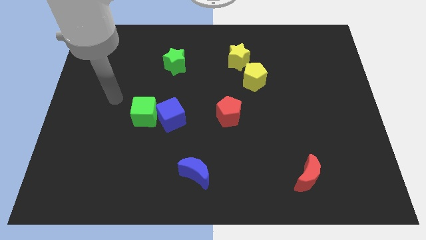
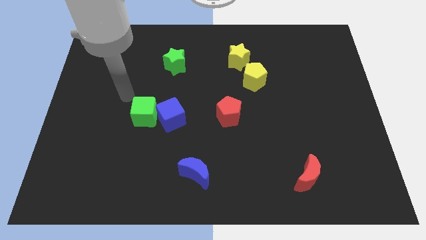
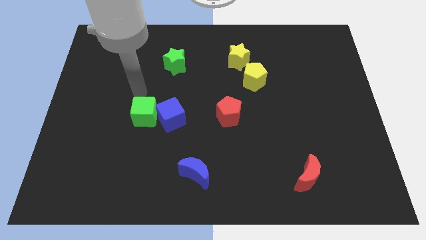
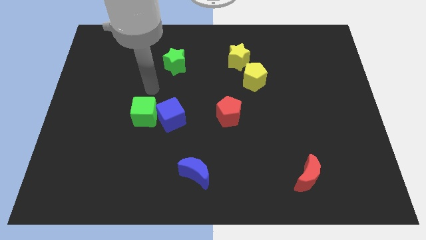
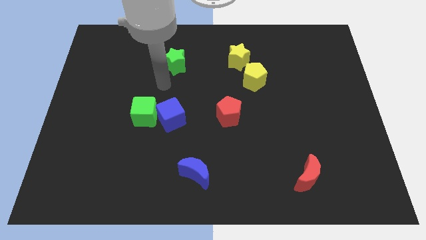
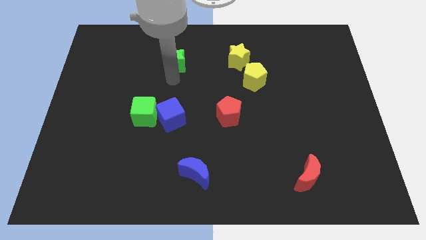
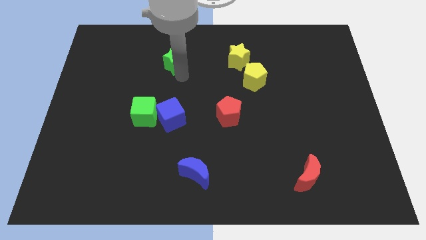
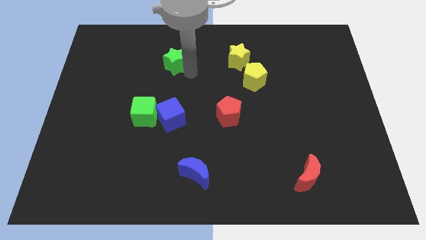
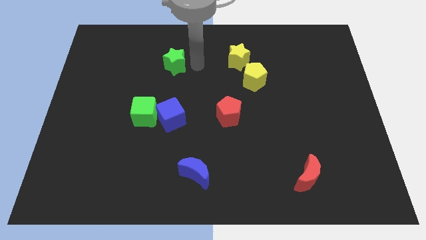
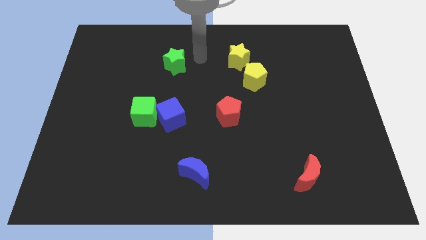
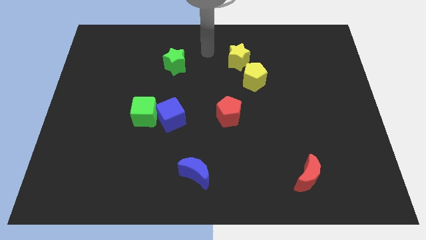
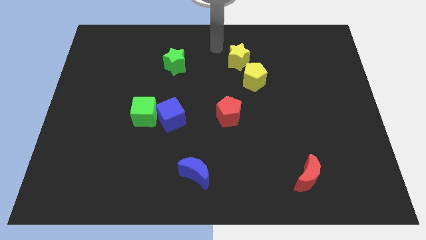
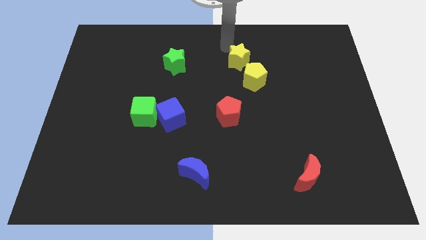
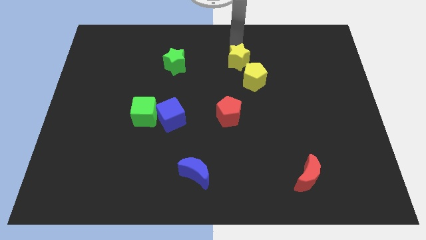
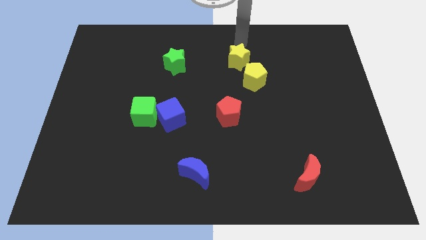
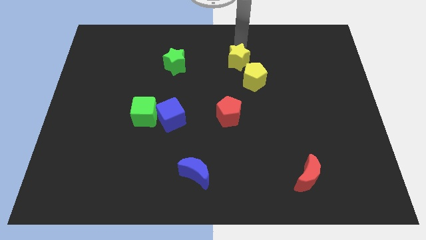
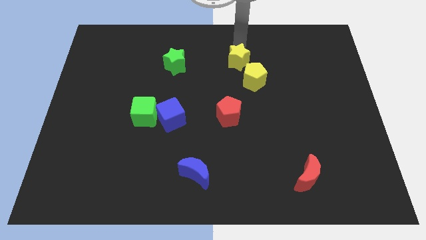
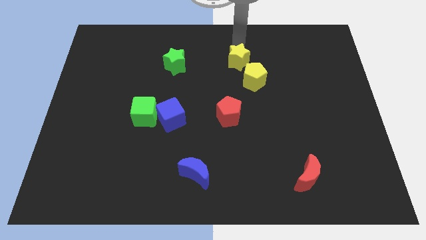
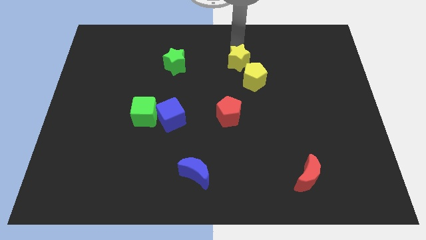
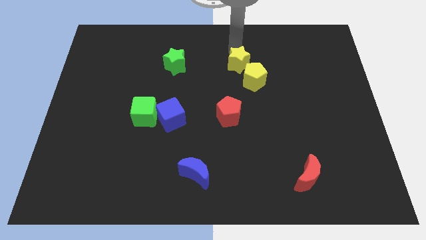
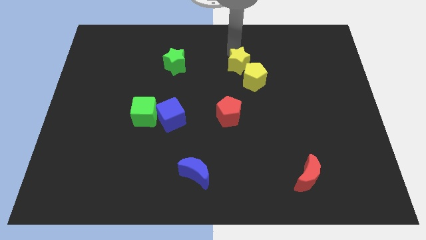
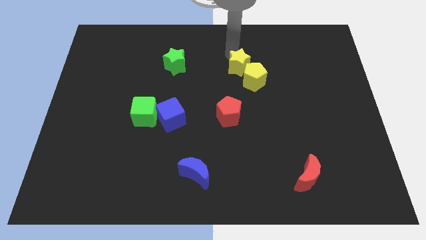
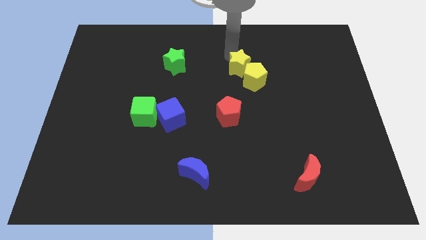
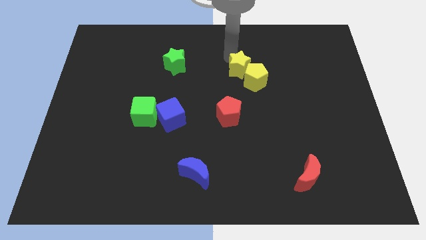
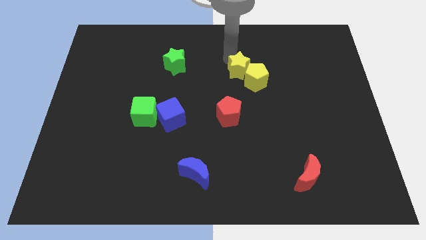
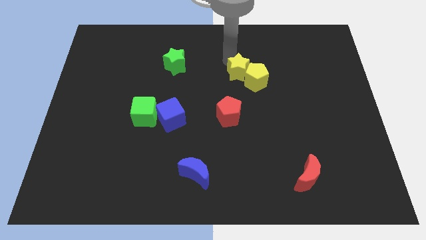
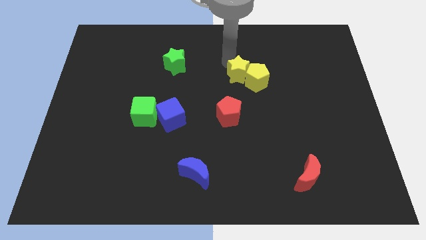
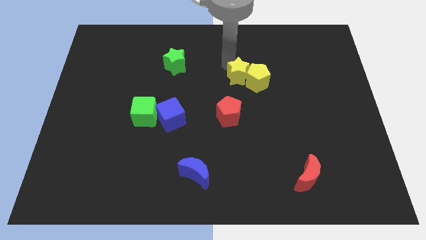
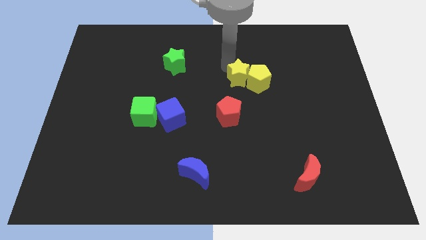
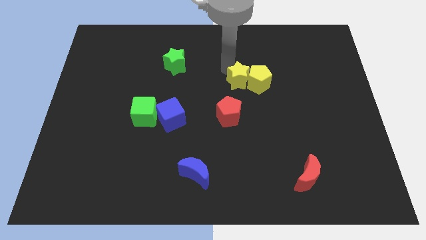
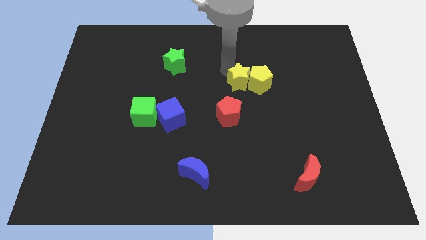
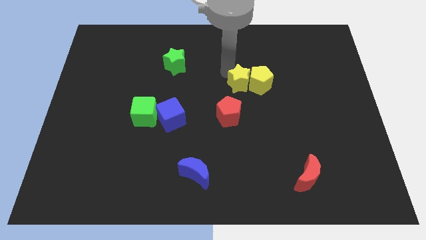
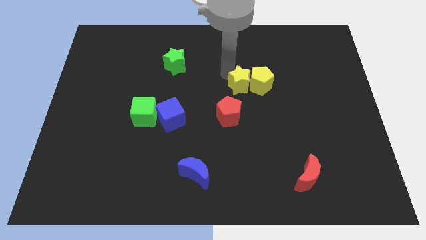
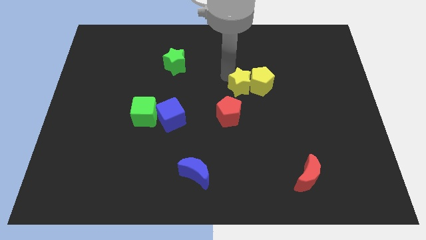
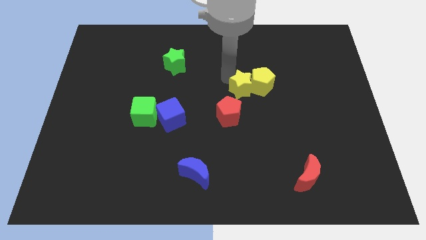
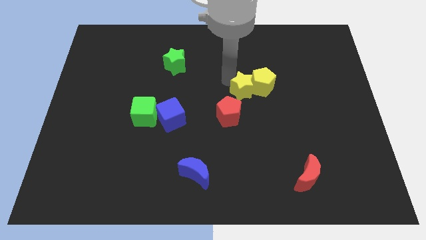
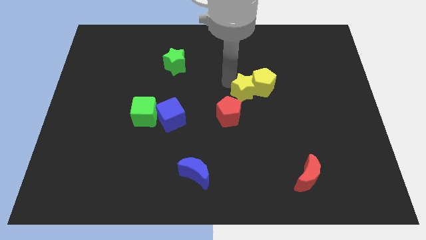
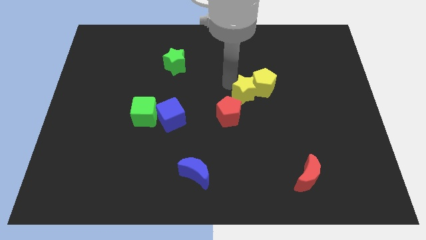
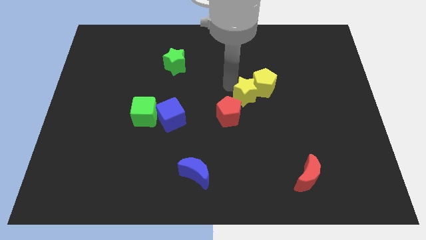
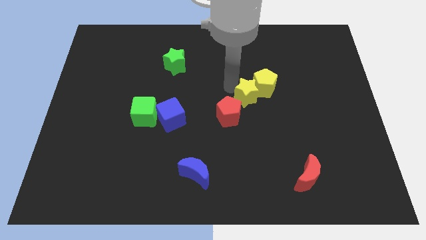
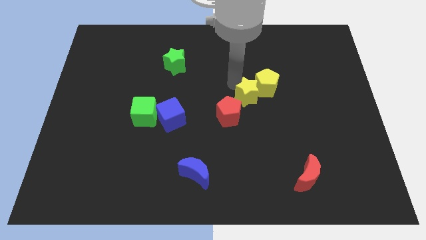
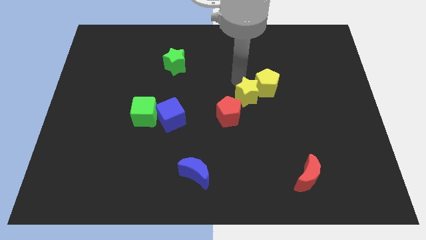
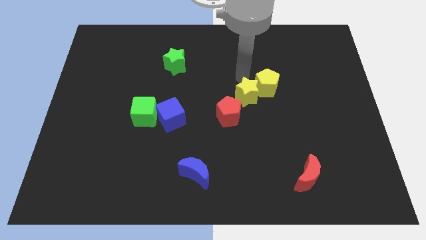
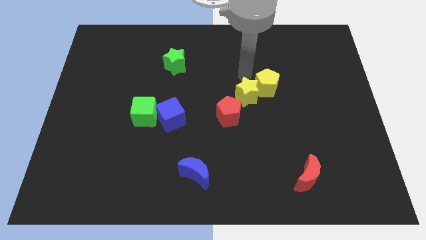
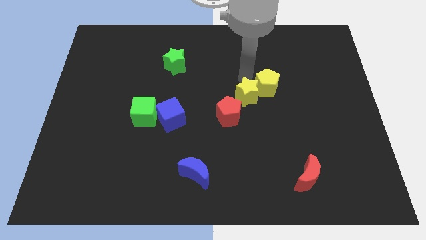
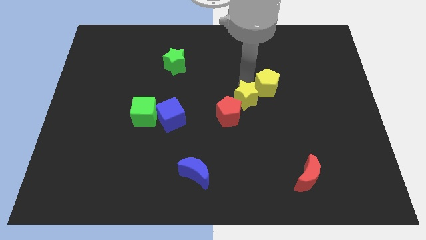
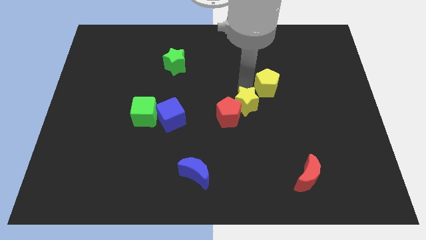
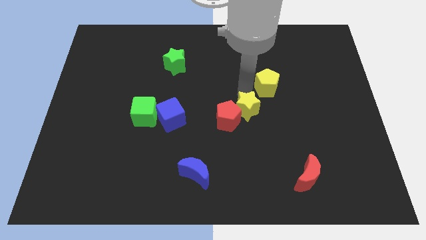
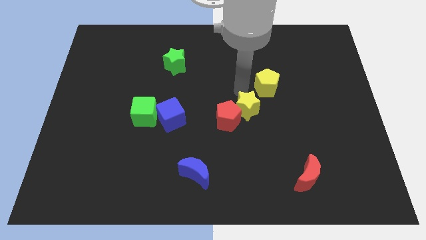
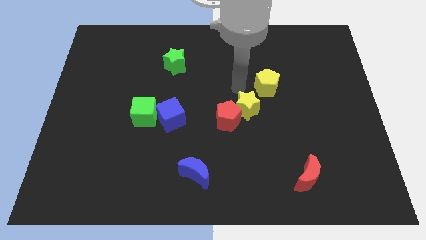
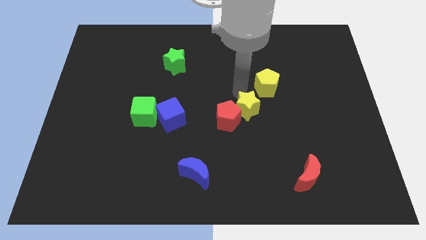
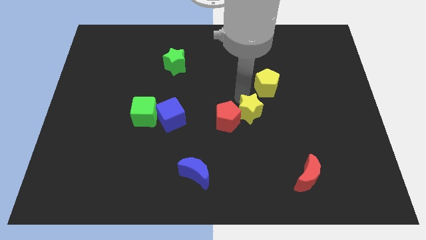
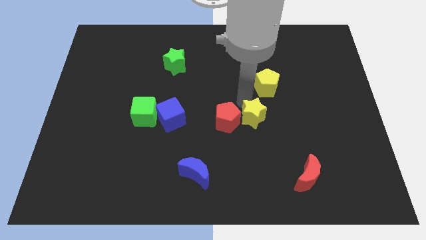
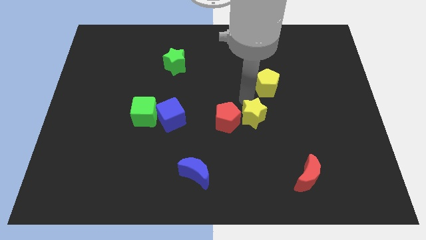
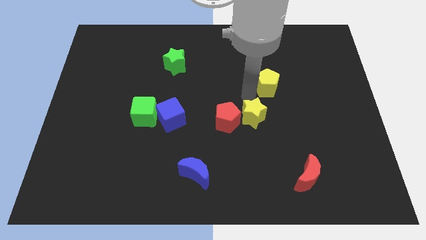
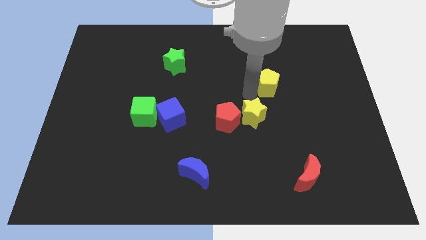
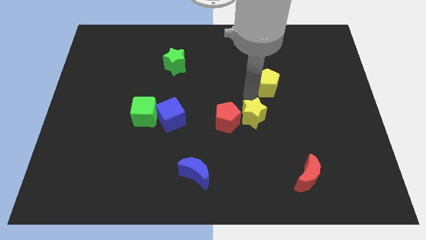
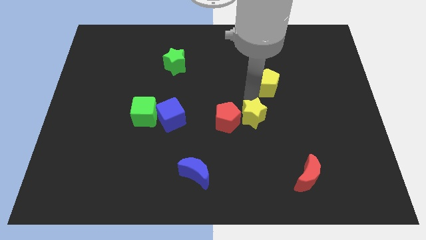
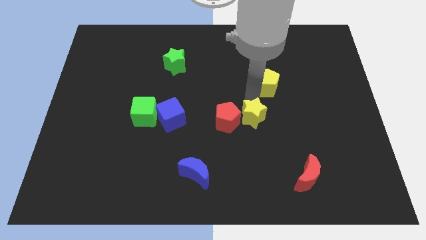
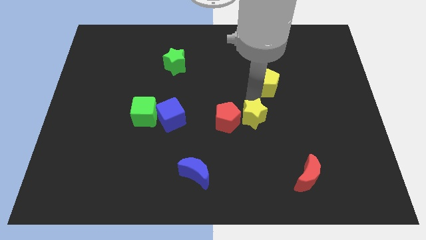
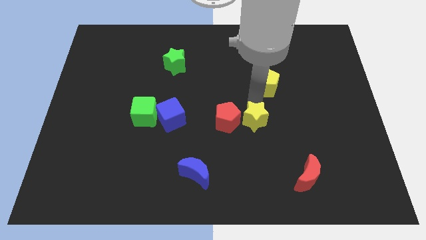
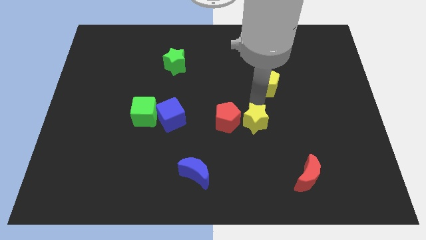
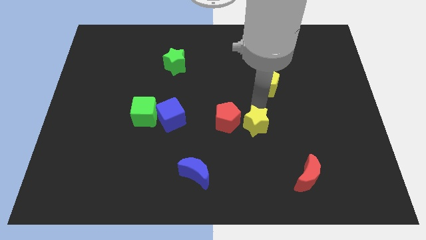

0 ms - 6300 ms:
move the yellow star downwards

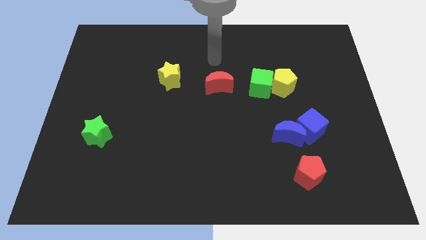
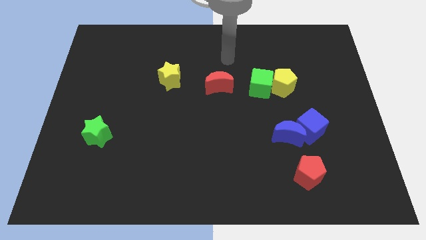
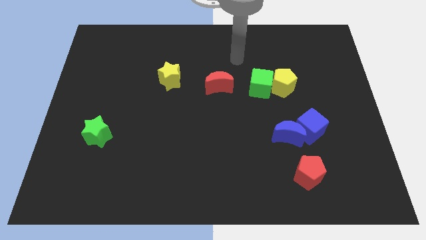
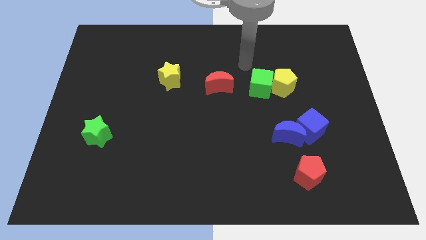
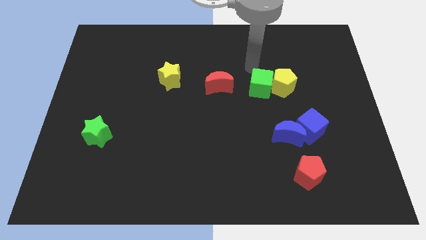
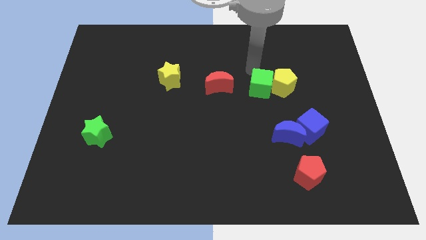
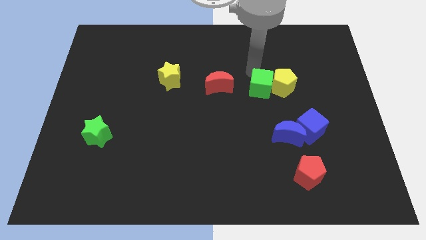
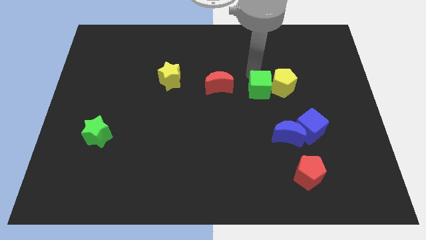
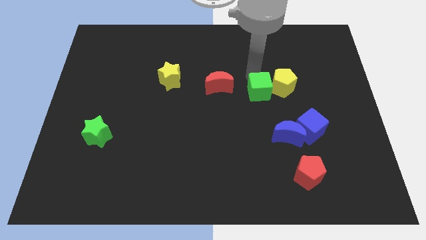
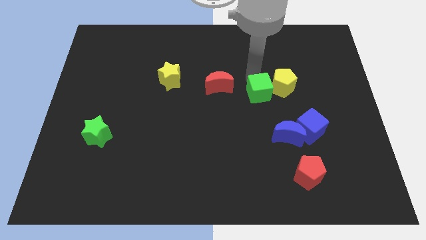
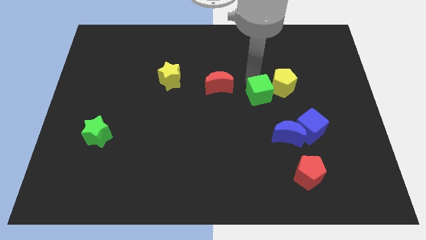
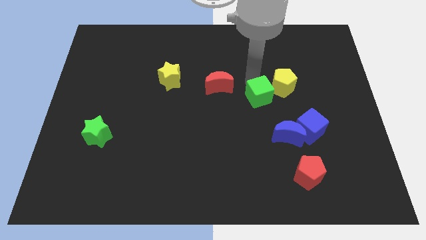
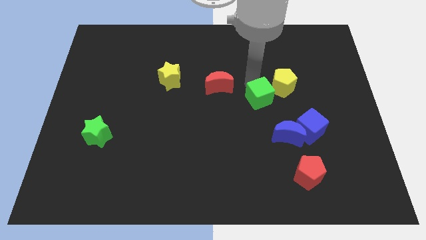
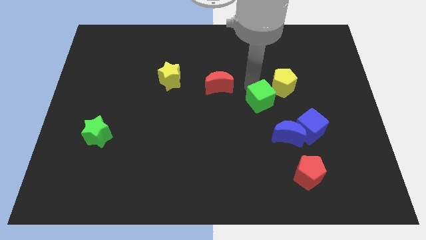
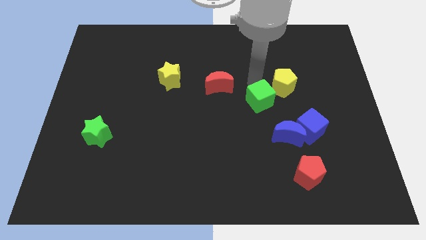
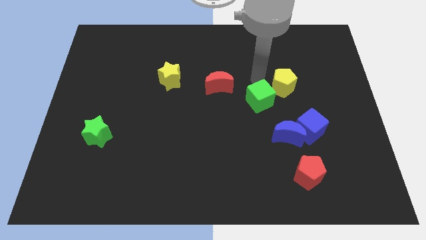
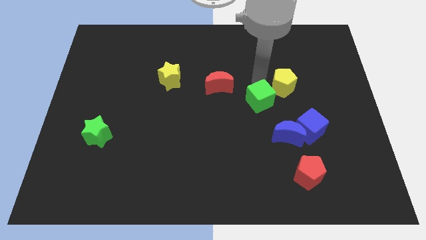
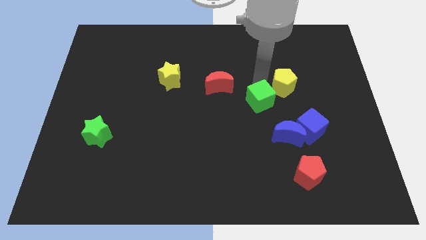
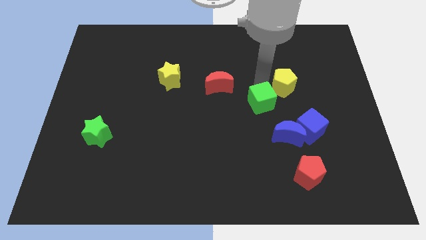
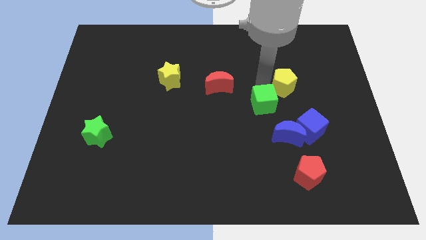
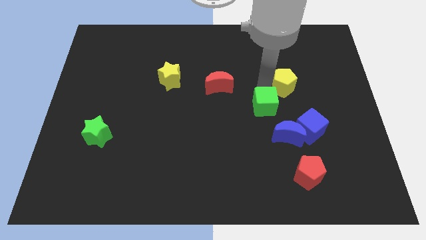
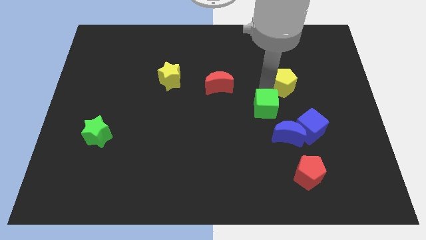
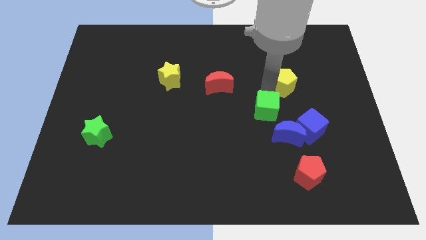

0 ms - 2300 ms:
move the green cube a little bit down

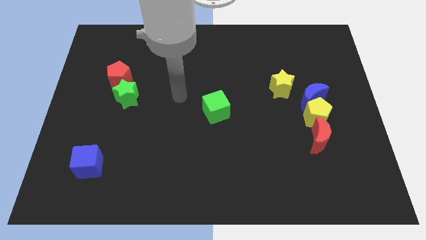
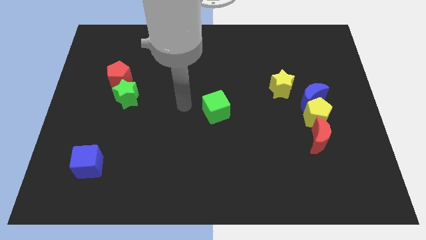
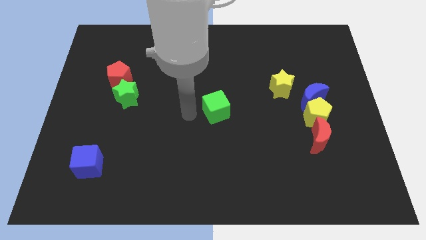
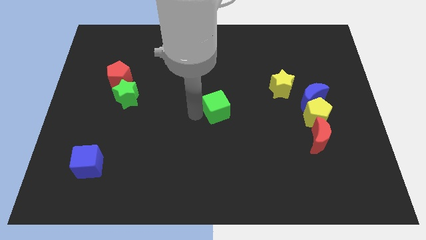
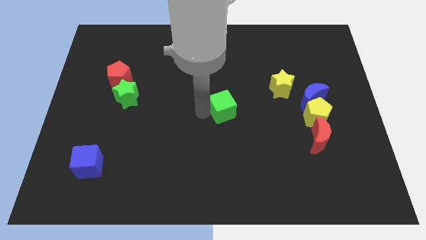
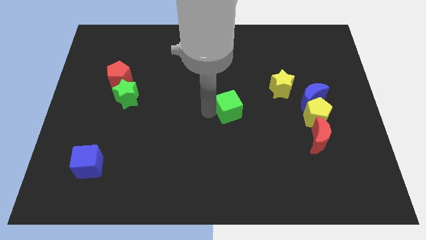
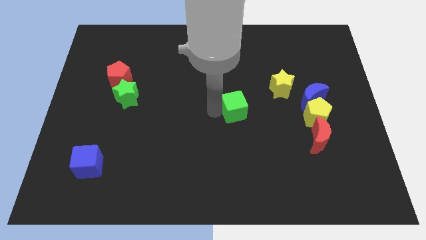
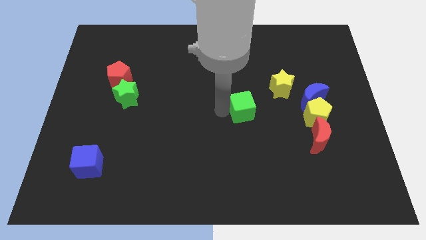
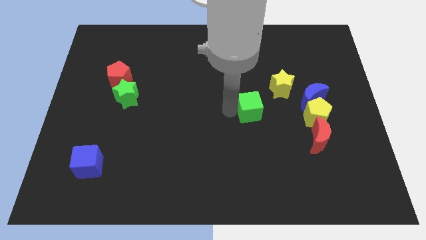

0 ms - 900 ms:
move the green cube right a bit
